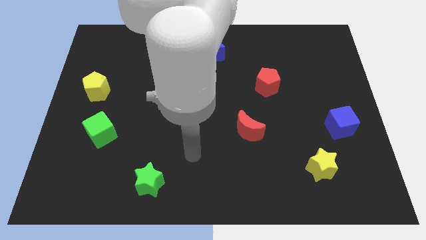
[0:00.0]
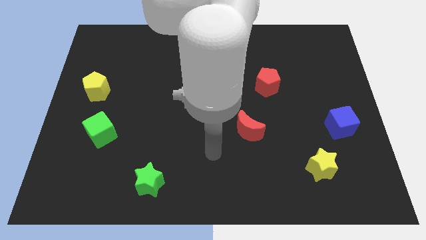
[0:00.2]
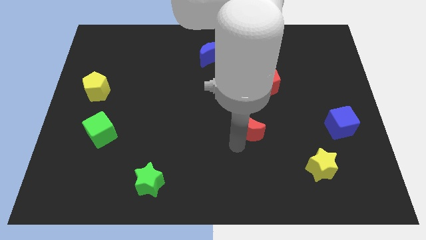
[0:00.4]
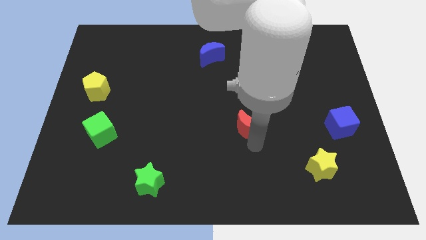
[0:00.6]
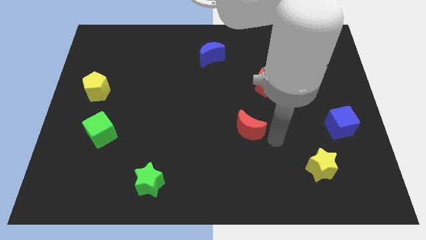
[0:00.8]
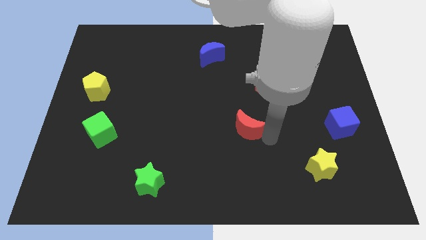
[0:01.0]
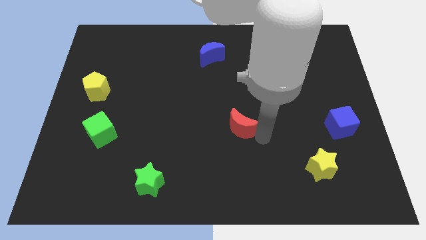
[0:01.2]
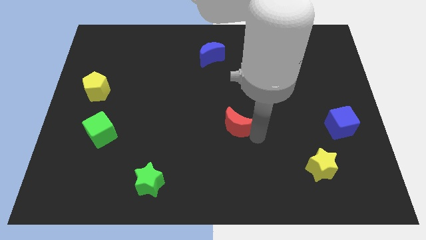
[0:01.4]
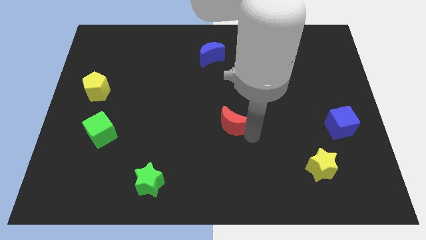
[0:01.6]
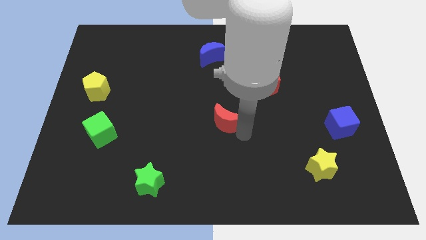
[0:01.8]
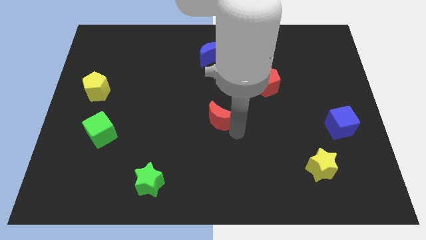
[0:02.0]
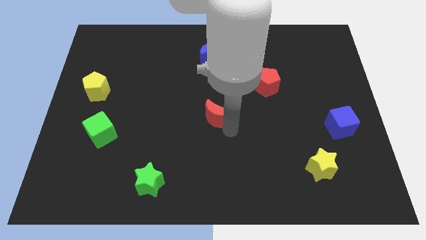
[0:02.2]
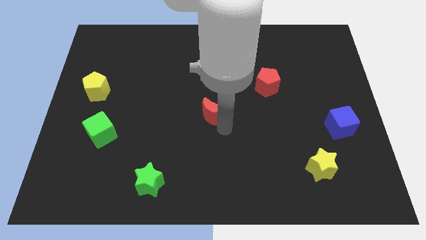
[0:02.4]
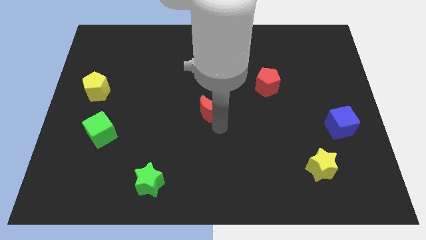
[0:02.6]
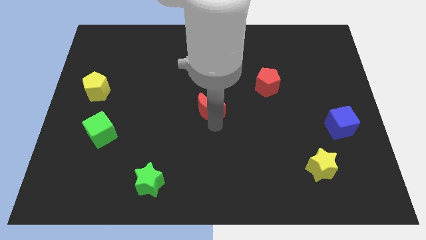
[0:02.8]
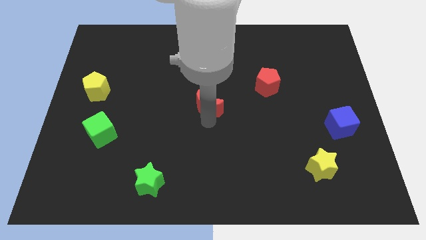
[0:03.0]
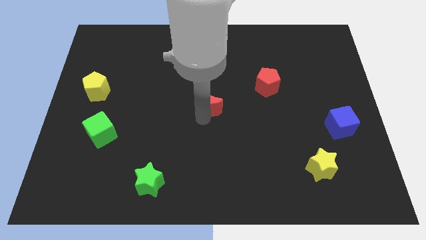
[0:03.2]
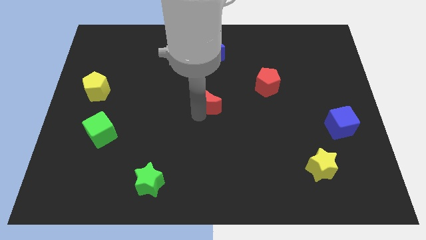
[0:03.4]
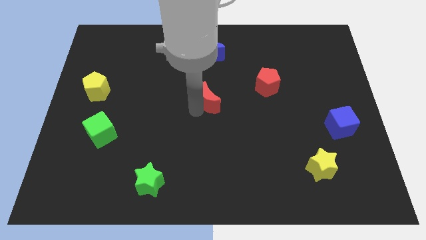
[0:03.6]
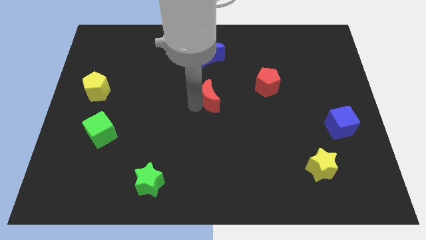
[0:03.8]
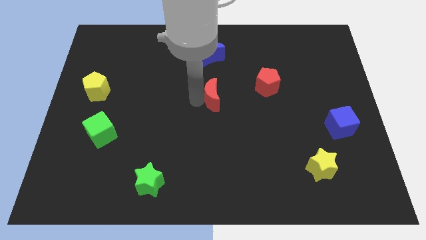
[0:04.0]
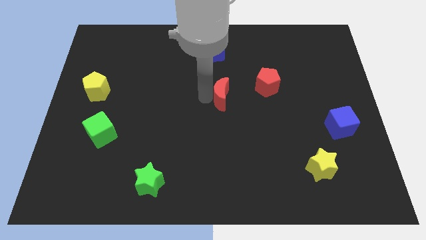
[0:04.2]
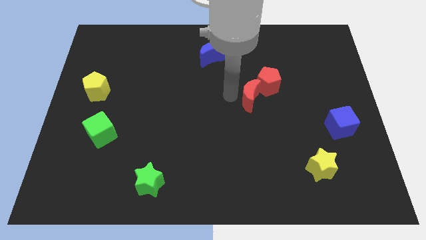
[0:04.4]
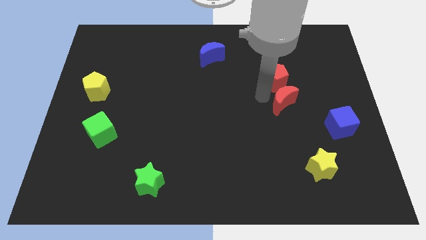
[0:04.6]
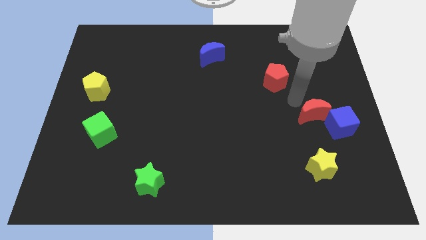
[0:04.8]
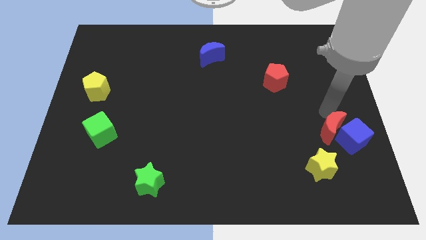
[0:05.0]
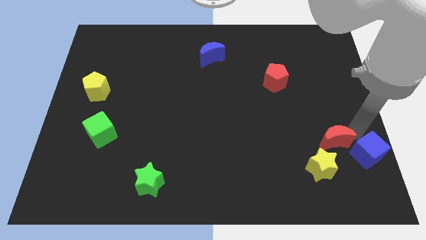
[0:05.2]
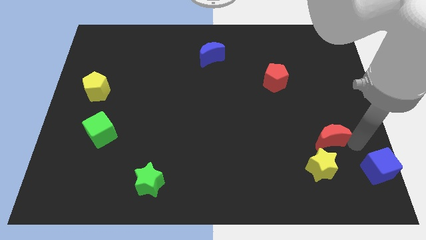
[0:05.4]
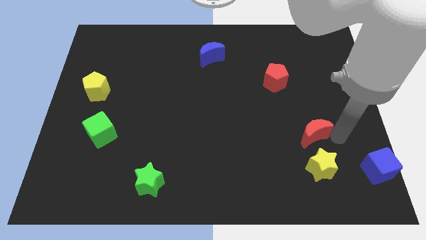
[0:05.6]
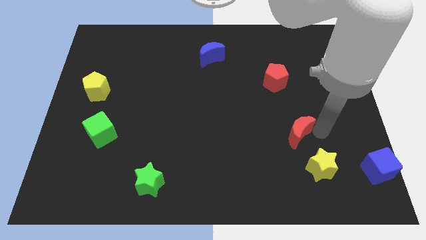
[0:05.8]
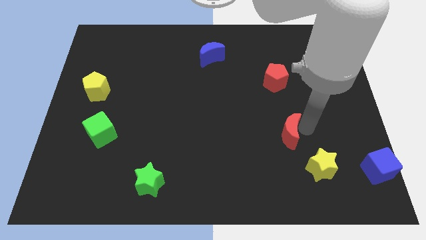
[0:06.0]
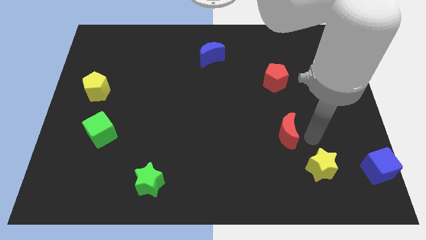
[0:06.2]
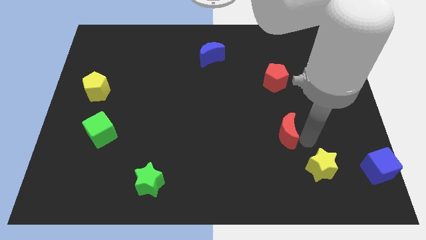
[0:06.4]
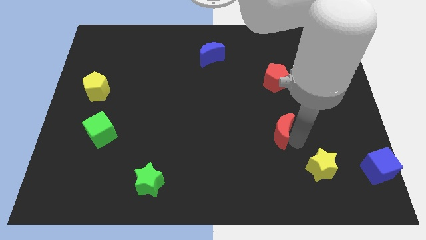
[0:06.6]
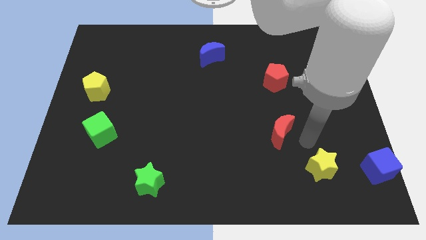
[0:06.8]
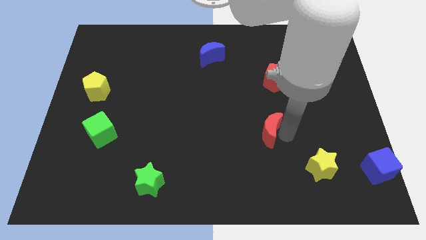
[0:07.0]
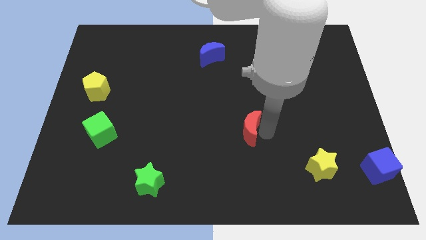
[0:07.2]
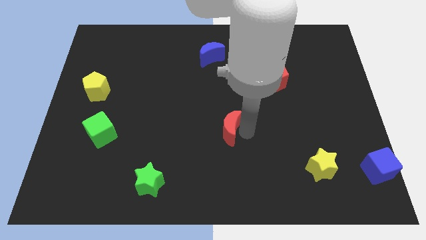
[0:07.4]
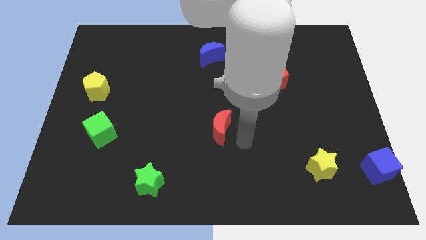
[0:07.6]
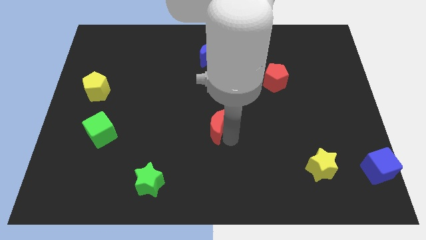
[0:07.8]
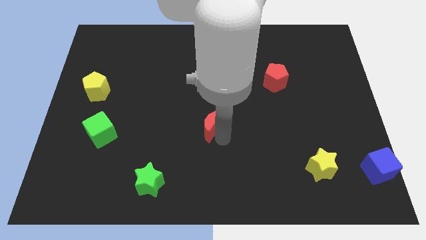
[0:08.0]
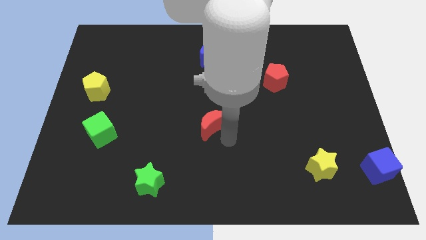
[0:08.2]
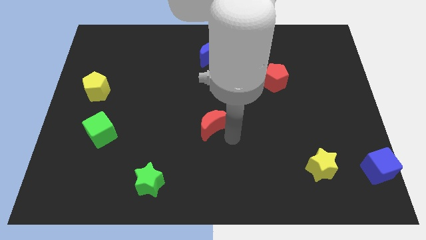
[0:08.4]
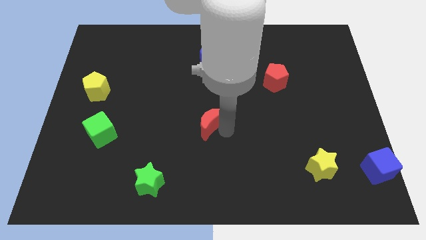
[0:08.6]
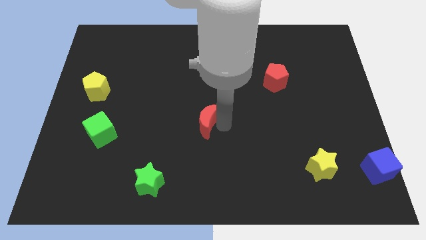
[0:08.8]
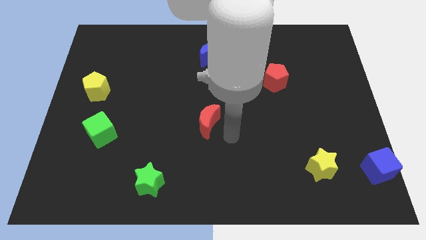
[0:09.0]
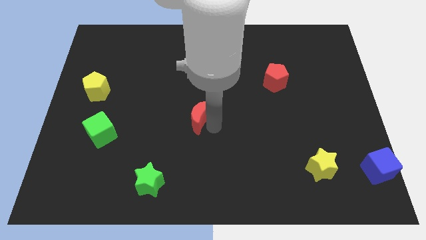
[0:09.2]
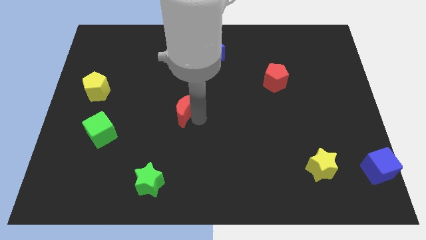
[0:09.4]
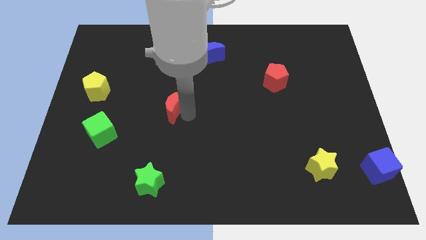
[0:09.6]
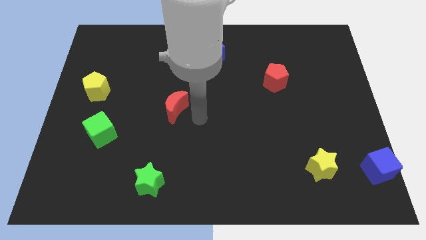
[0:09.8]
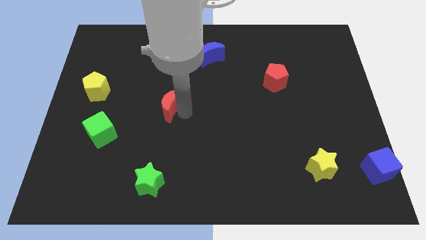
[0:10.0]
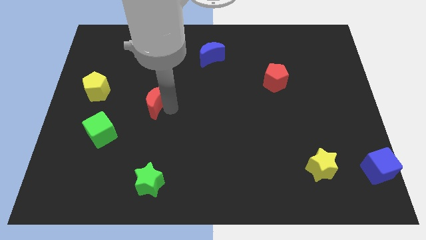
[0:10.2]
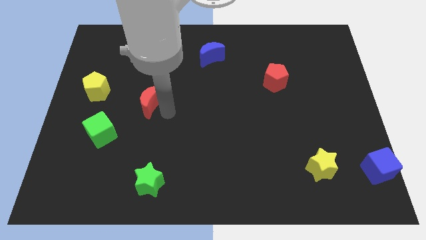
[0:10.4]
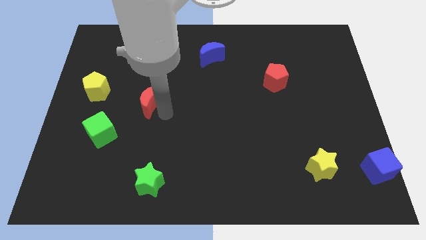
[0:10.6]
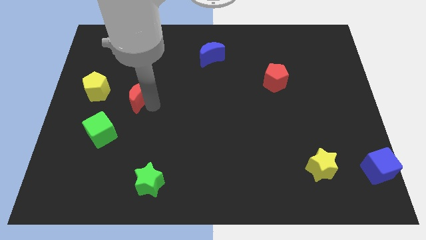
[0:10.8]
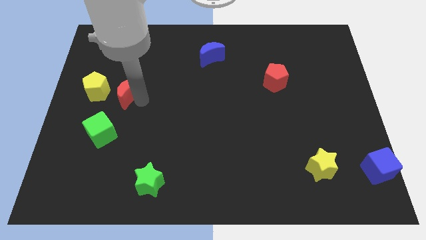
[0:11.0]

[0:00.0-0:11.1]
slide the red moon to the top of the green cube

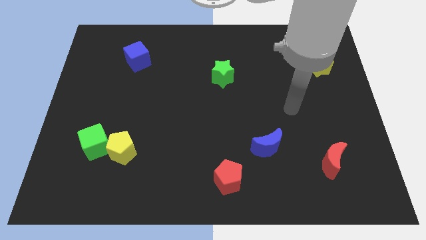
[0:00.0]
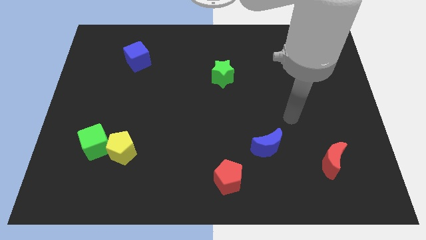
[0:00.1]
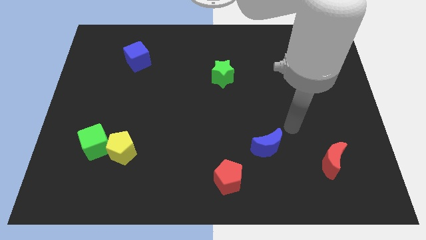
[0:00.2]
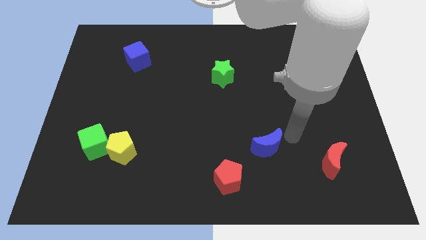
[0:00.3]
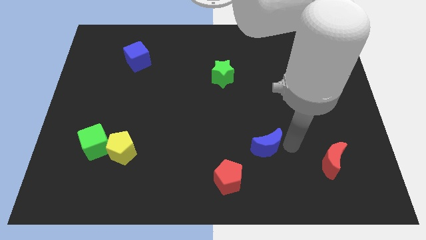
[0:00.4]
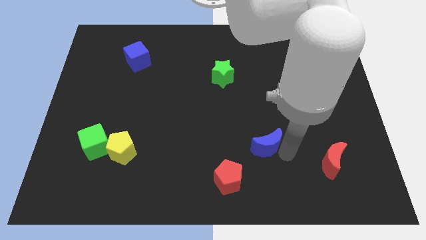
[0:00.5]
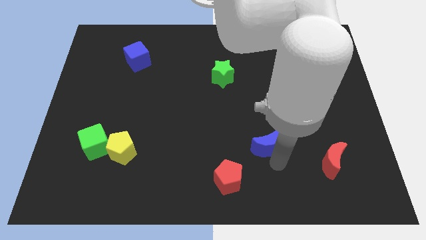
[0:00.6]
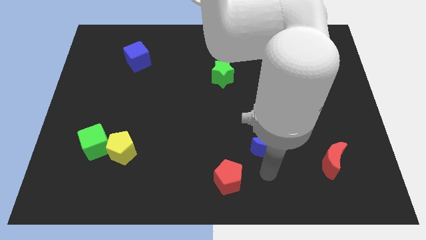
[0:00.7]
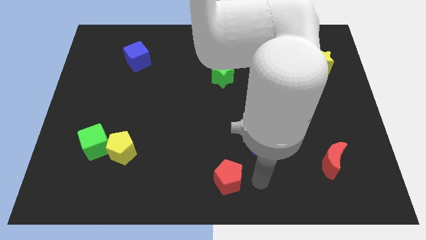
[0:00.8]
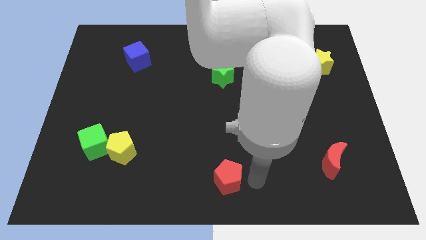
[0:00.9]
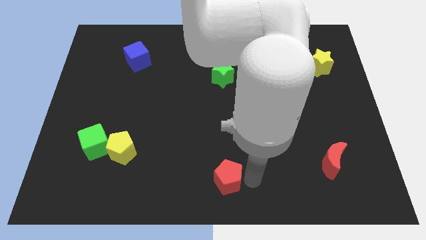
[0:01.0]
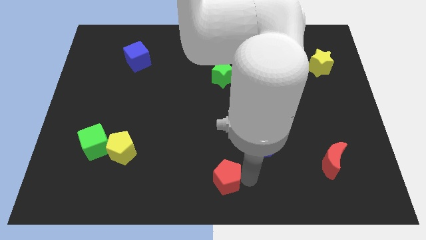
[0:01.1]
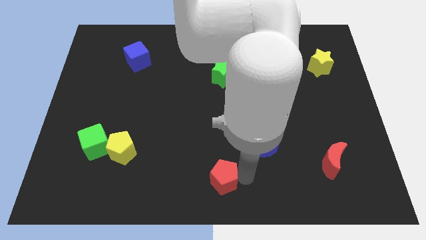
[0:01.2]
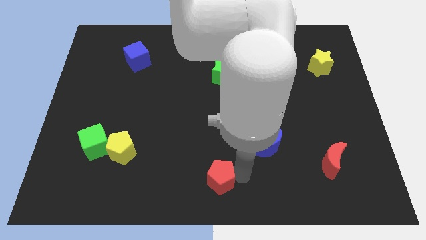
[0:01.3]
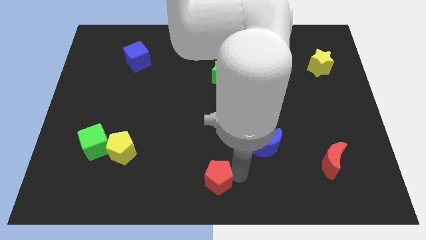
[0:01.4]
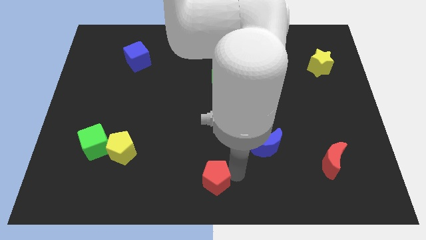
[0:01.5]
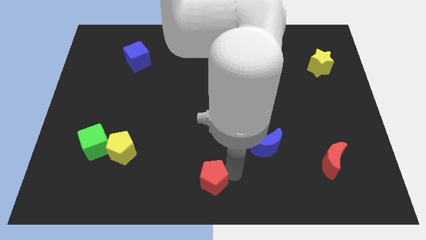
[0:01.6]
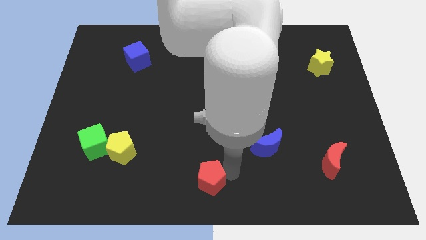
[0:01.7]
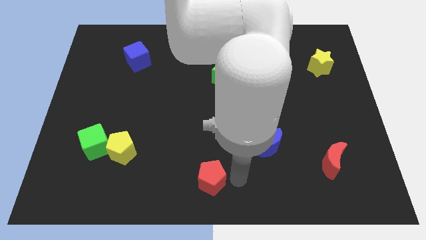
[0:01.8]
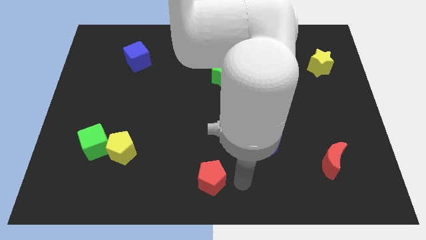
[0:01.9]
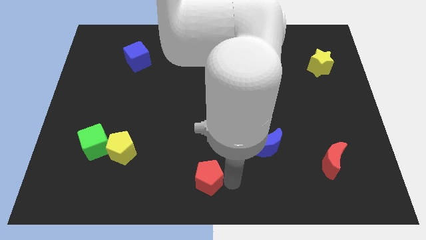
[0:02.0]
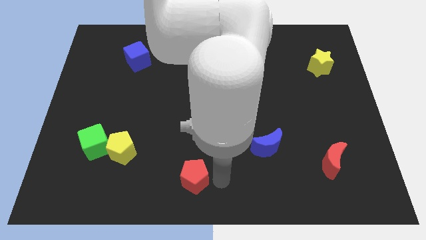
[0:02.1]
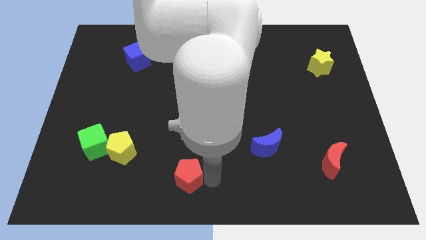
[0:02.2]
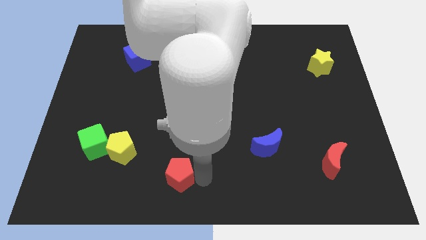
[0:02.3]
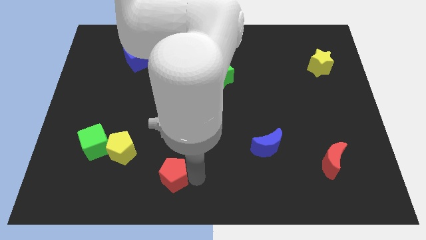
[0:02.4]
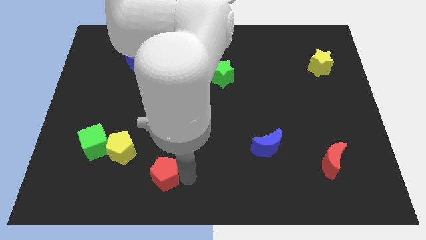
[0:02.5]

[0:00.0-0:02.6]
push the red pentagon diagonally down and to the right of the yellow pentagon

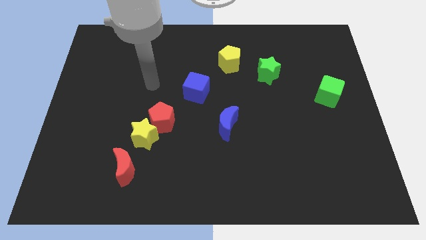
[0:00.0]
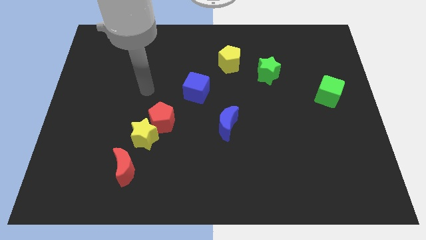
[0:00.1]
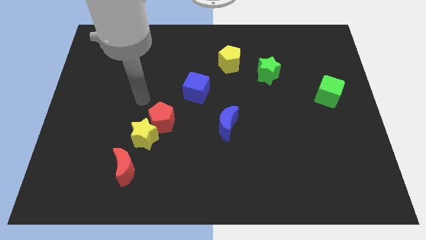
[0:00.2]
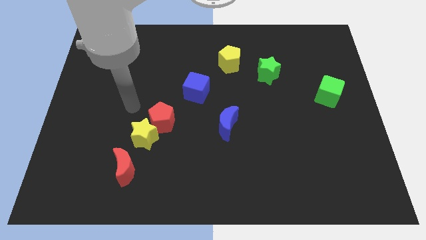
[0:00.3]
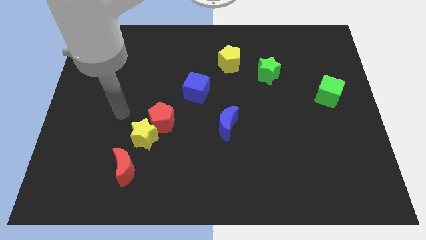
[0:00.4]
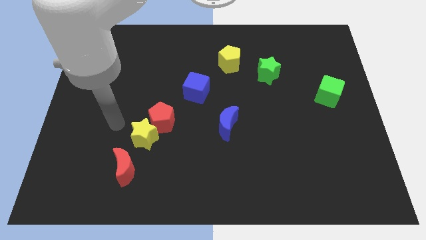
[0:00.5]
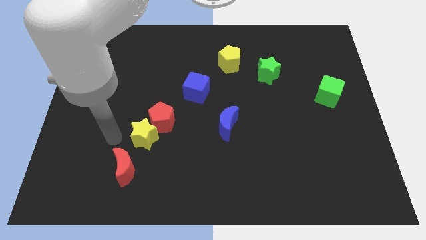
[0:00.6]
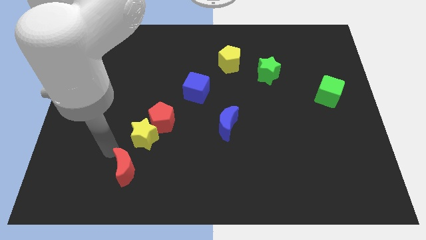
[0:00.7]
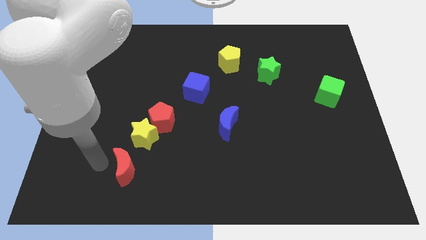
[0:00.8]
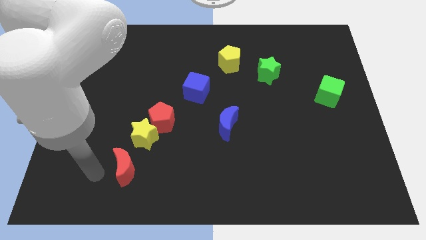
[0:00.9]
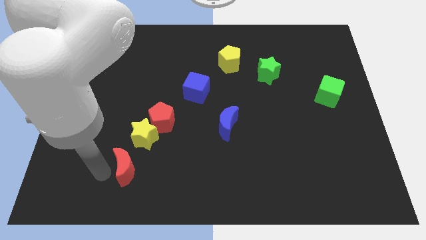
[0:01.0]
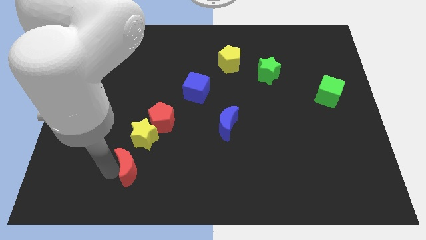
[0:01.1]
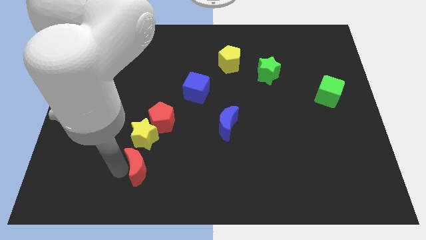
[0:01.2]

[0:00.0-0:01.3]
put the red moon below the red pentagon
